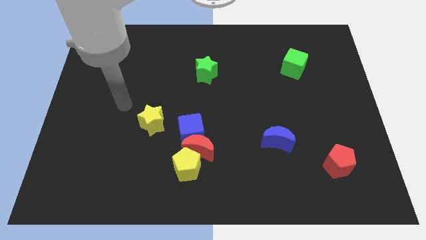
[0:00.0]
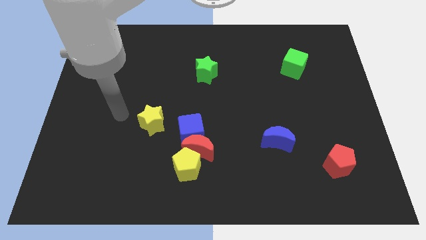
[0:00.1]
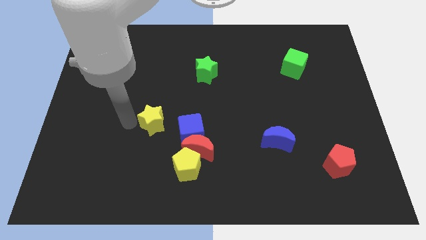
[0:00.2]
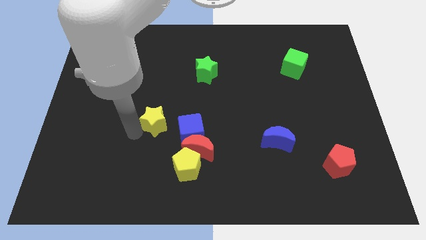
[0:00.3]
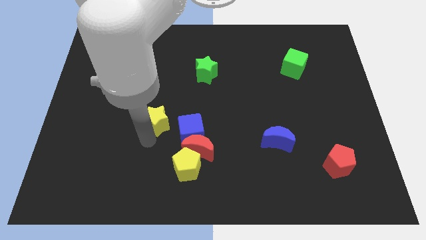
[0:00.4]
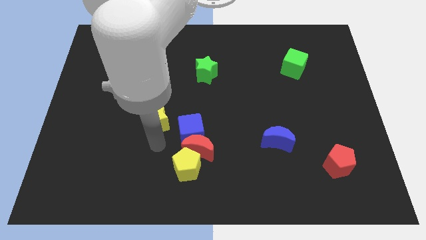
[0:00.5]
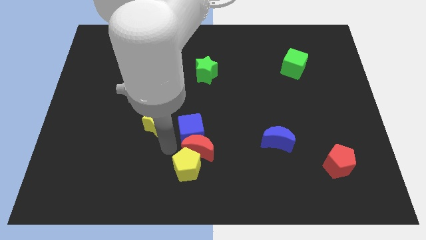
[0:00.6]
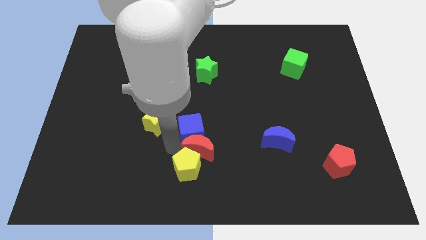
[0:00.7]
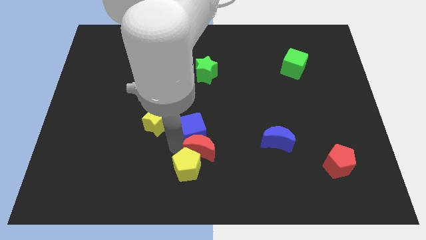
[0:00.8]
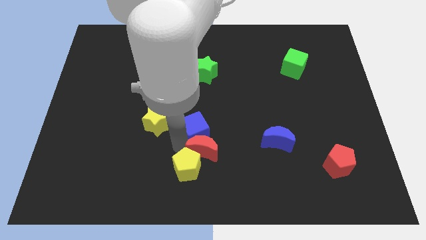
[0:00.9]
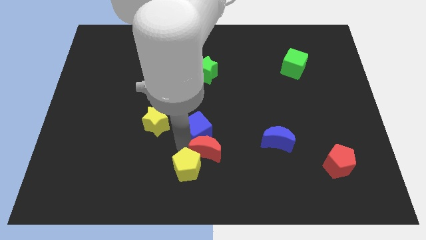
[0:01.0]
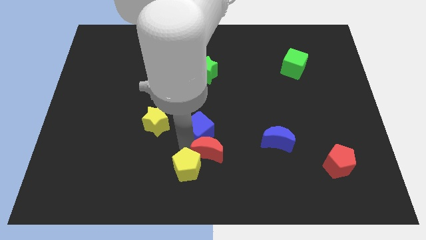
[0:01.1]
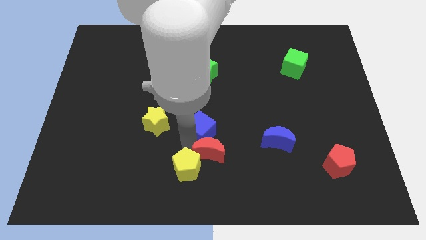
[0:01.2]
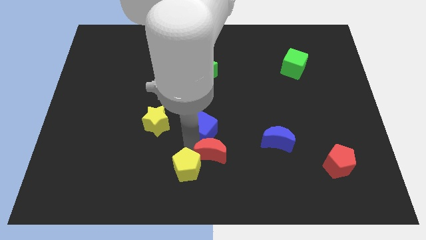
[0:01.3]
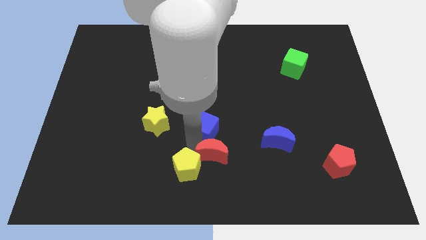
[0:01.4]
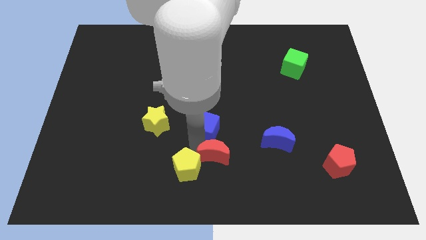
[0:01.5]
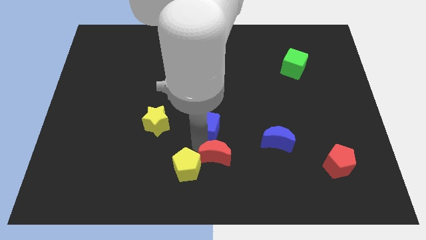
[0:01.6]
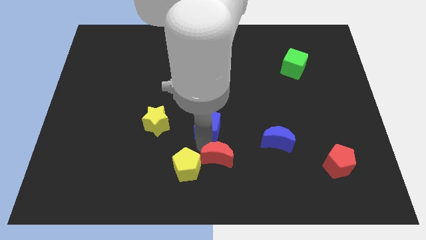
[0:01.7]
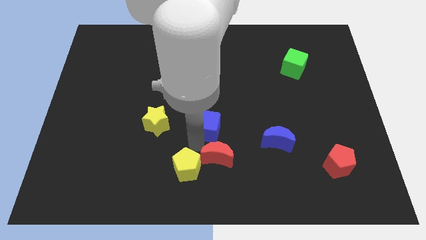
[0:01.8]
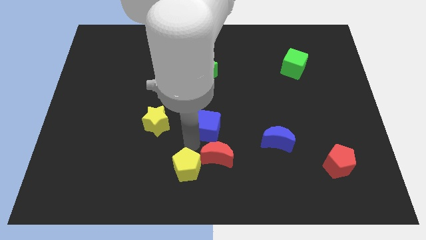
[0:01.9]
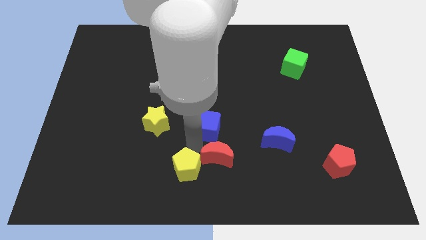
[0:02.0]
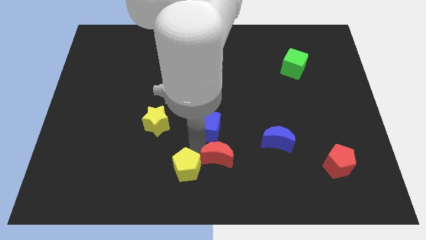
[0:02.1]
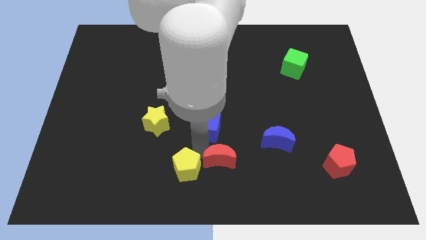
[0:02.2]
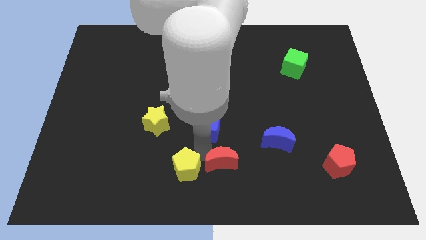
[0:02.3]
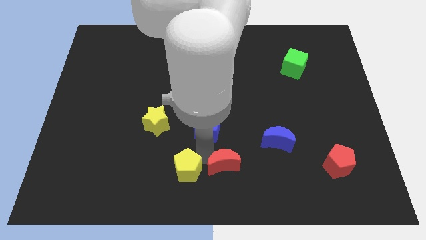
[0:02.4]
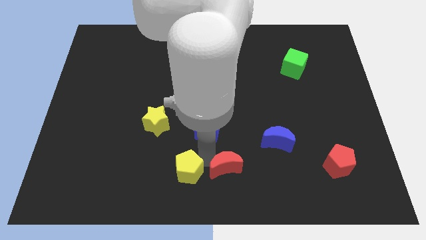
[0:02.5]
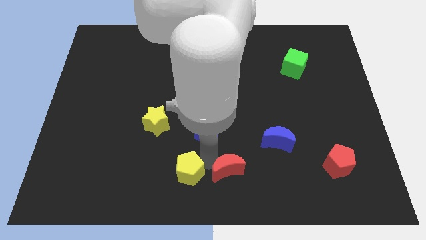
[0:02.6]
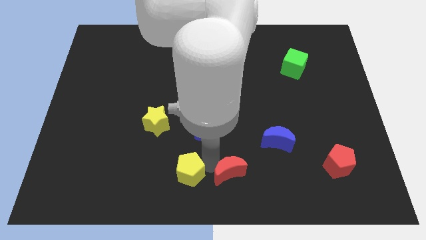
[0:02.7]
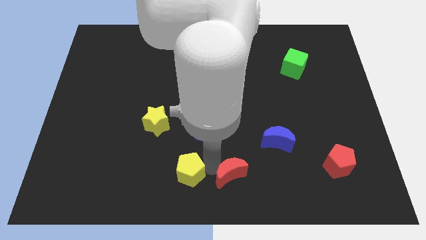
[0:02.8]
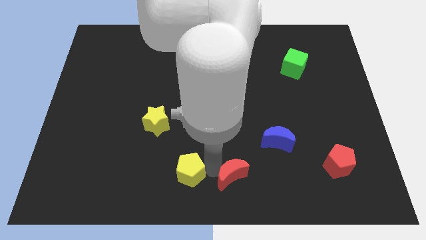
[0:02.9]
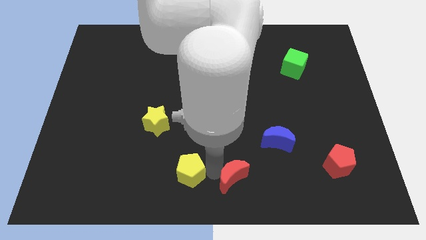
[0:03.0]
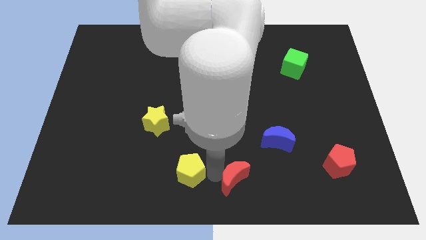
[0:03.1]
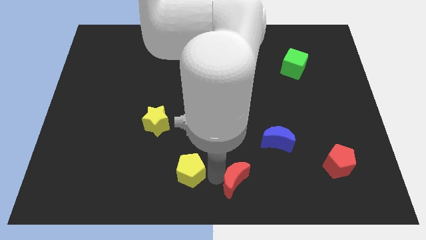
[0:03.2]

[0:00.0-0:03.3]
pull the red moon apart from the blue cube and yellow pentagon

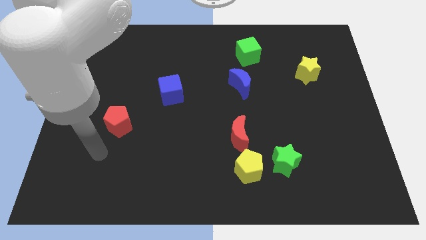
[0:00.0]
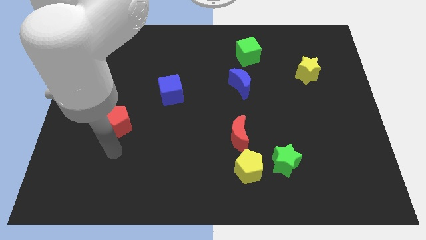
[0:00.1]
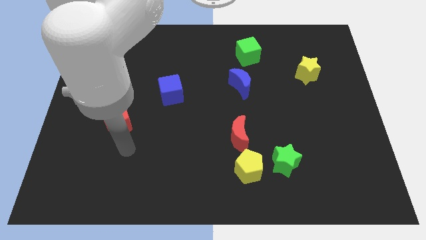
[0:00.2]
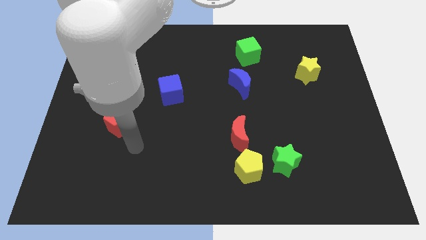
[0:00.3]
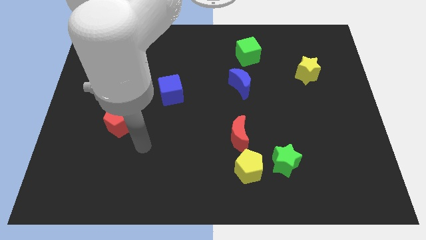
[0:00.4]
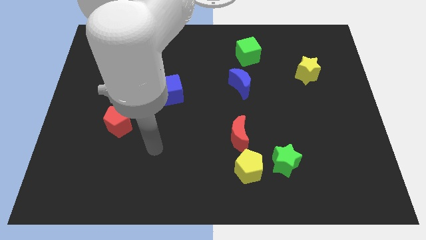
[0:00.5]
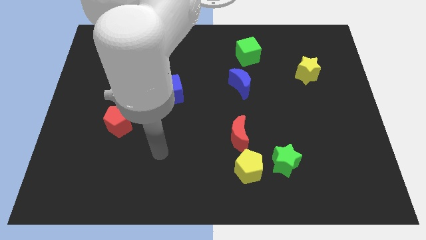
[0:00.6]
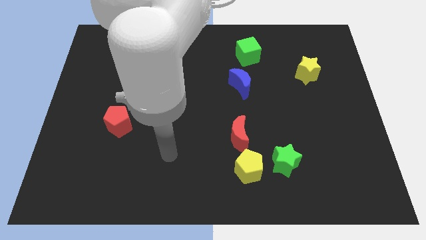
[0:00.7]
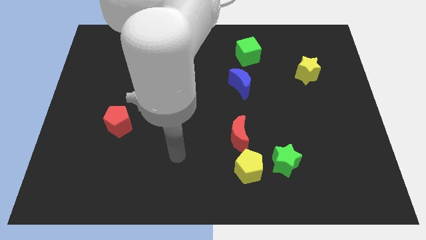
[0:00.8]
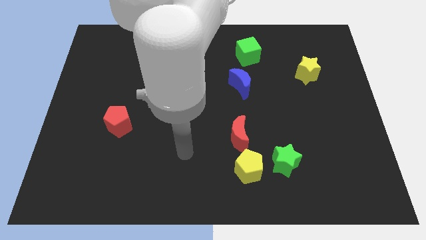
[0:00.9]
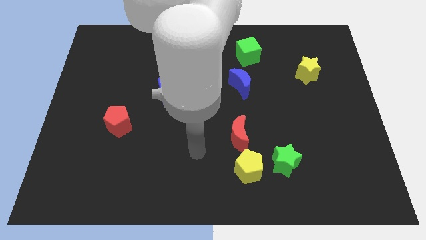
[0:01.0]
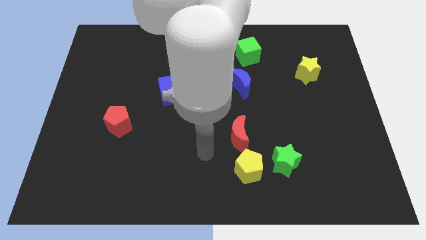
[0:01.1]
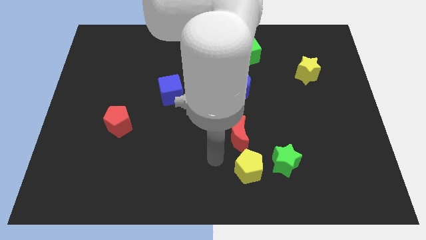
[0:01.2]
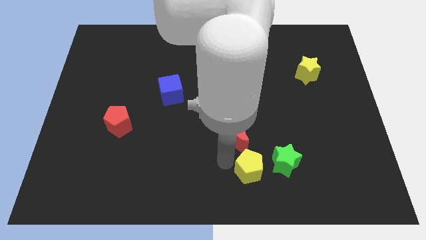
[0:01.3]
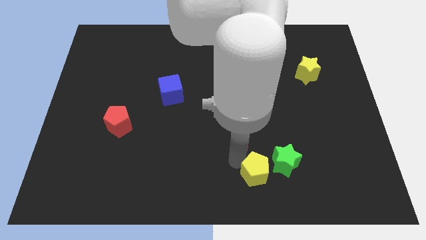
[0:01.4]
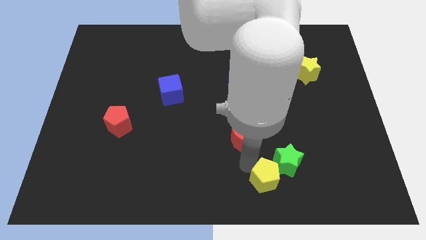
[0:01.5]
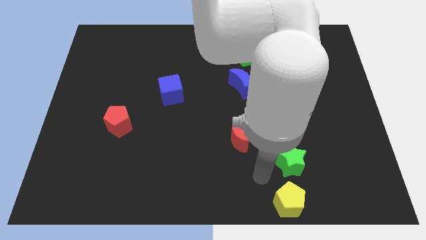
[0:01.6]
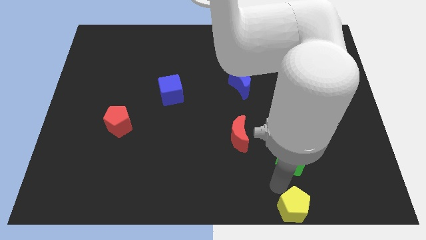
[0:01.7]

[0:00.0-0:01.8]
move the green star away from the yellow pentagon

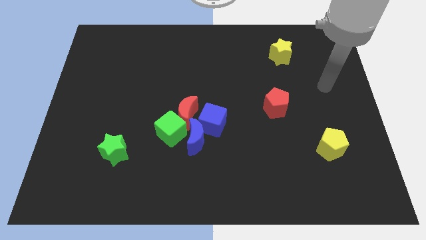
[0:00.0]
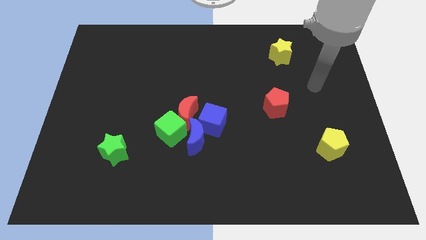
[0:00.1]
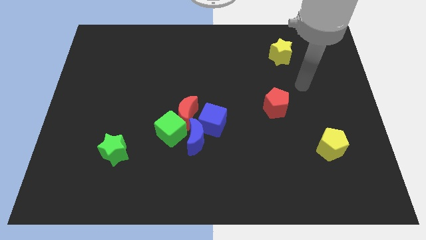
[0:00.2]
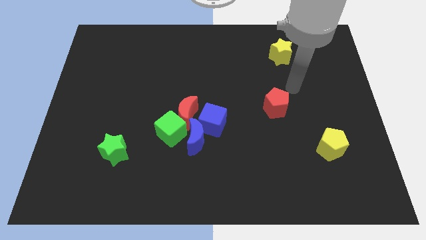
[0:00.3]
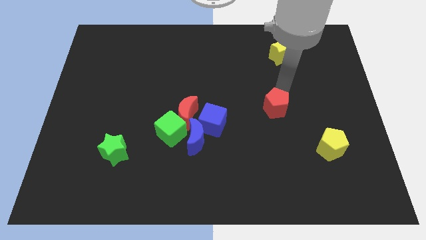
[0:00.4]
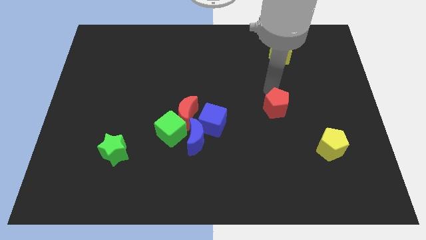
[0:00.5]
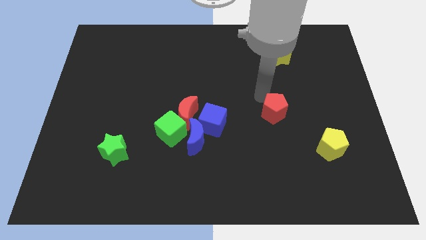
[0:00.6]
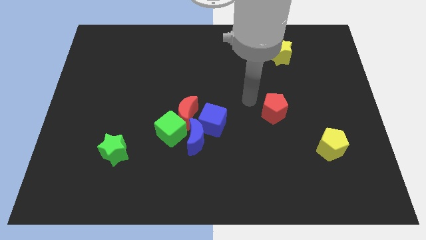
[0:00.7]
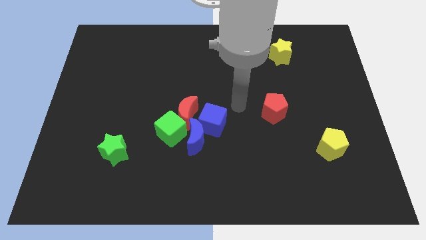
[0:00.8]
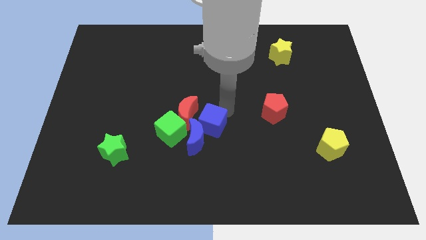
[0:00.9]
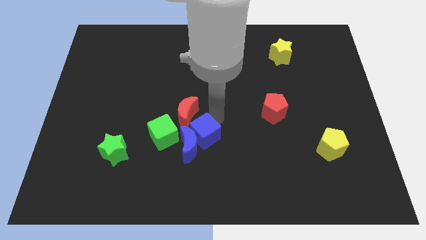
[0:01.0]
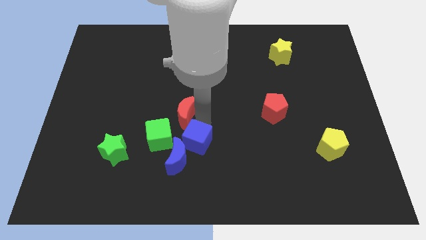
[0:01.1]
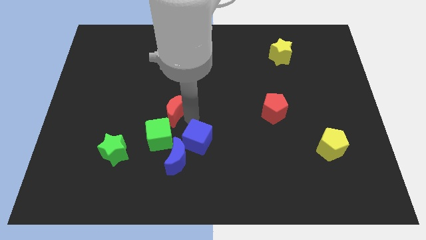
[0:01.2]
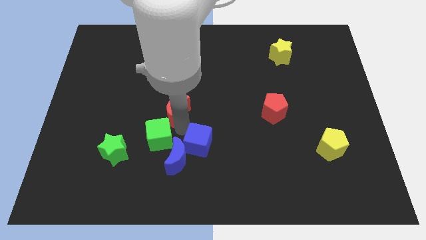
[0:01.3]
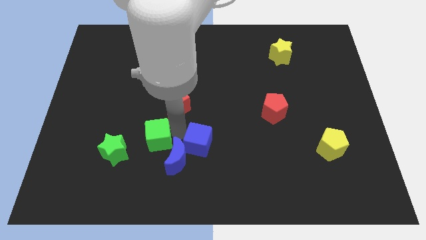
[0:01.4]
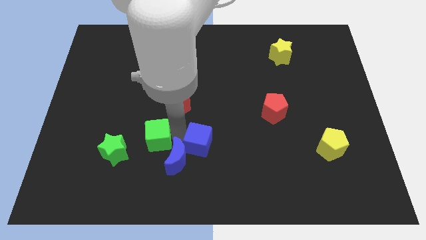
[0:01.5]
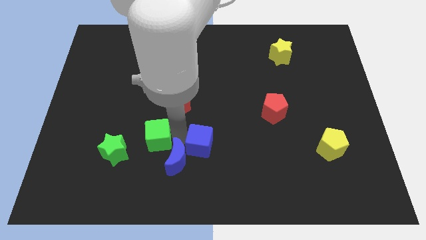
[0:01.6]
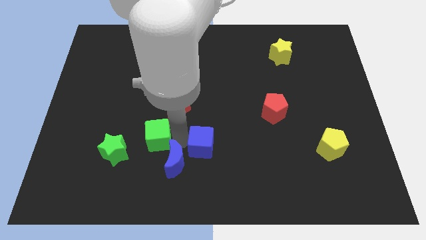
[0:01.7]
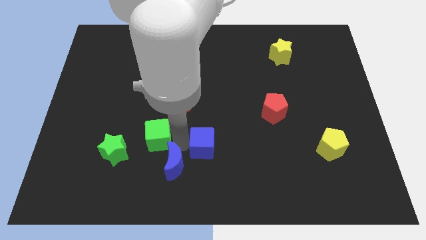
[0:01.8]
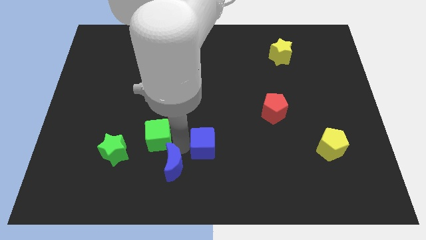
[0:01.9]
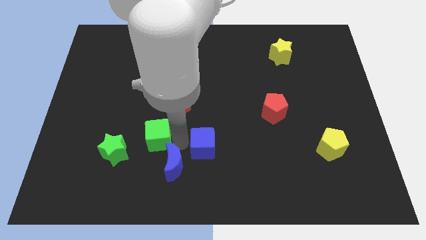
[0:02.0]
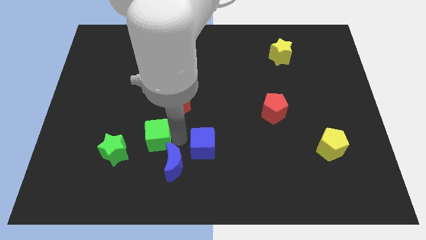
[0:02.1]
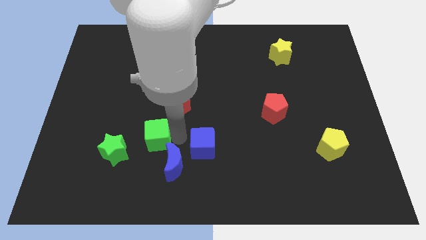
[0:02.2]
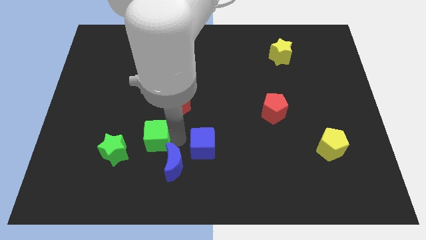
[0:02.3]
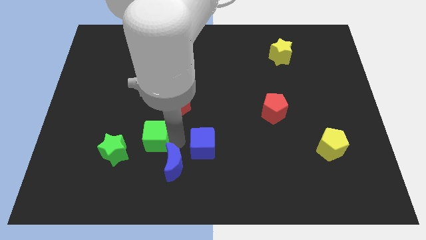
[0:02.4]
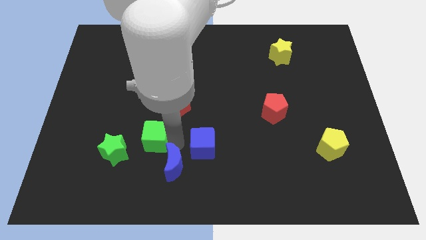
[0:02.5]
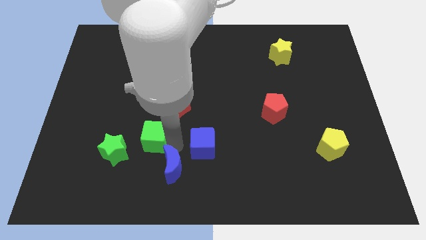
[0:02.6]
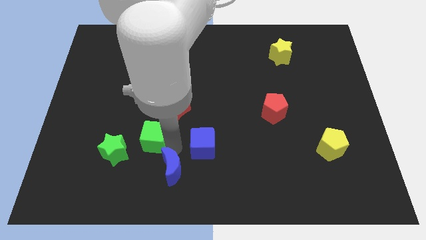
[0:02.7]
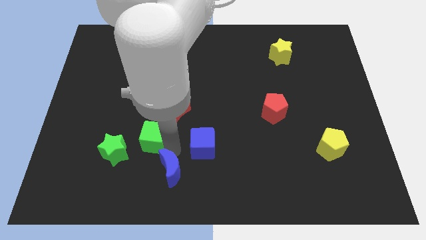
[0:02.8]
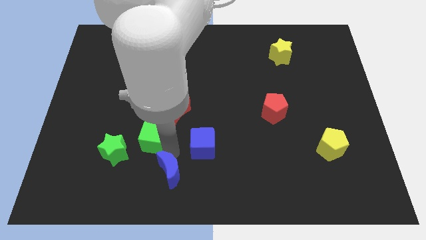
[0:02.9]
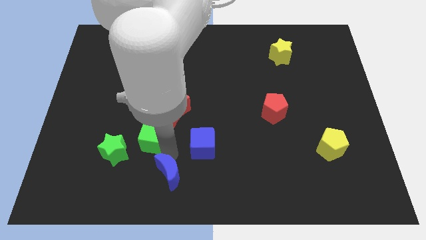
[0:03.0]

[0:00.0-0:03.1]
separate the blue moon from the clump
